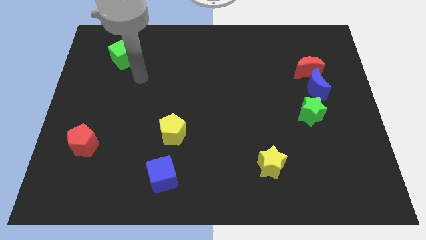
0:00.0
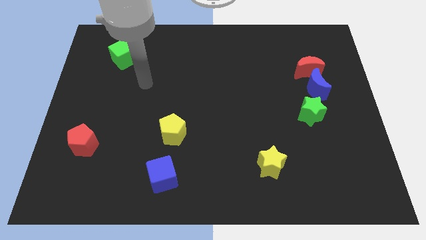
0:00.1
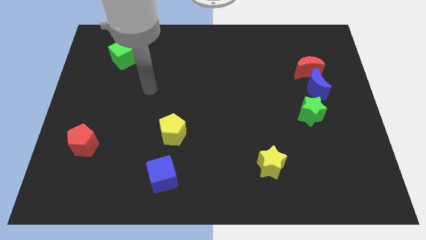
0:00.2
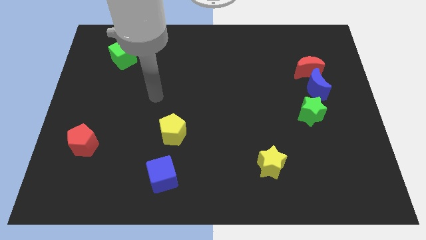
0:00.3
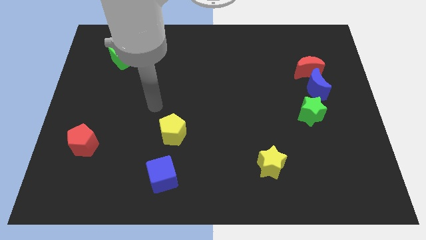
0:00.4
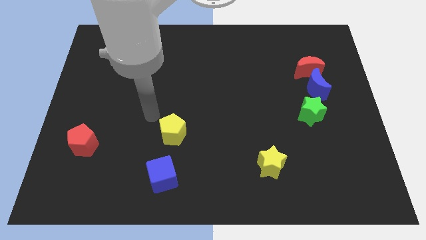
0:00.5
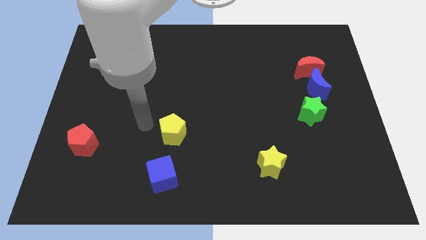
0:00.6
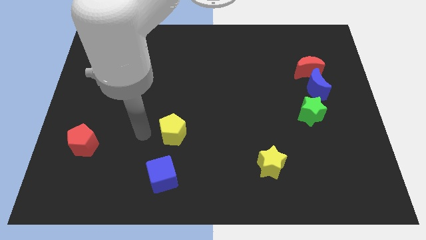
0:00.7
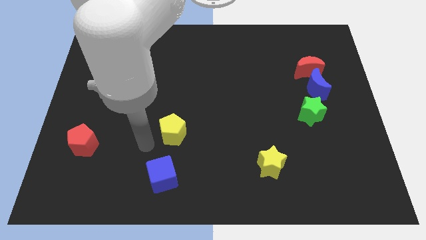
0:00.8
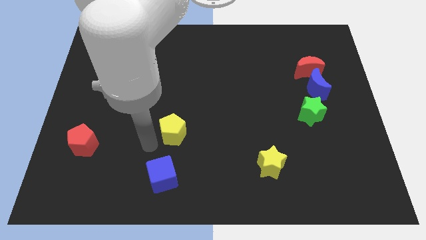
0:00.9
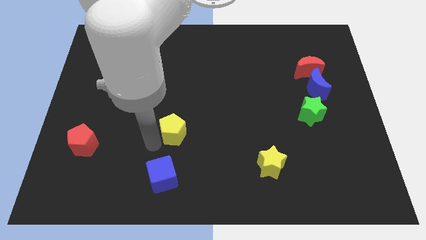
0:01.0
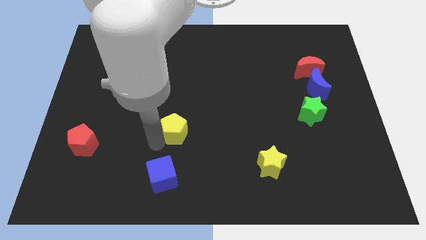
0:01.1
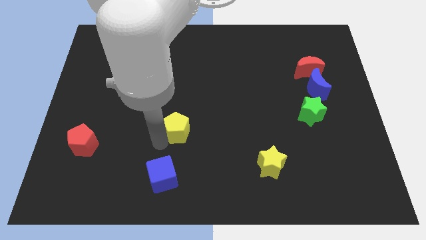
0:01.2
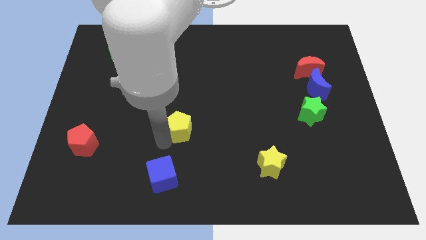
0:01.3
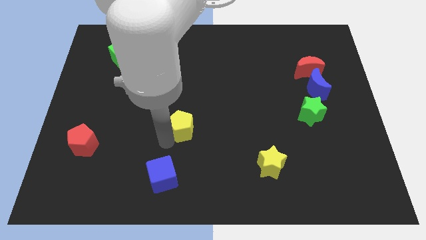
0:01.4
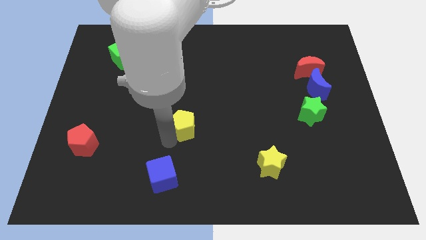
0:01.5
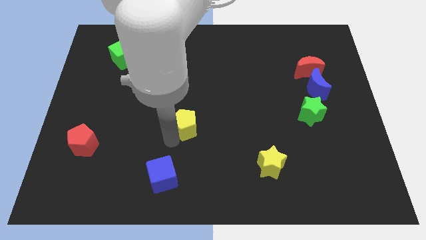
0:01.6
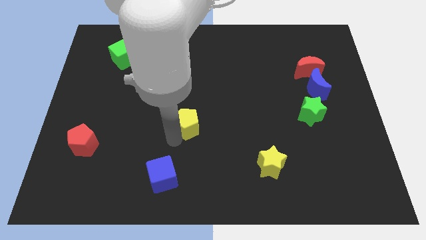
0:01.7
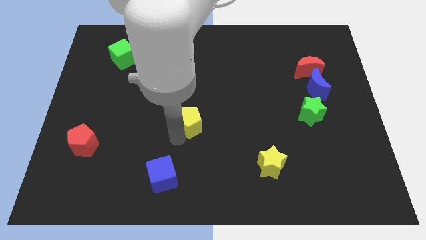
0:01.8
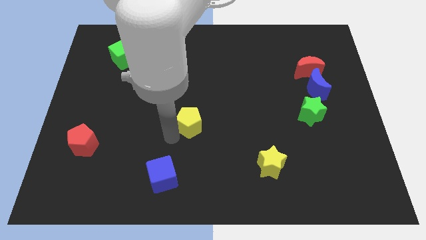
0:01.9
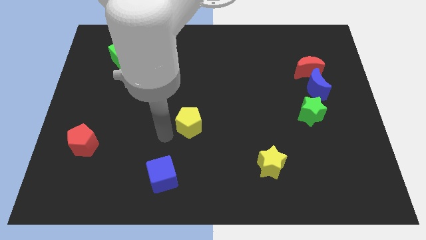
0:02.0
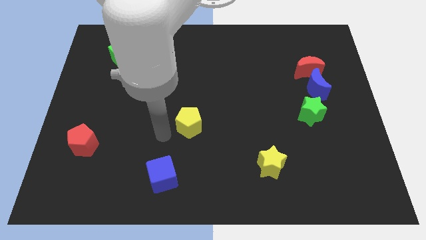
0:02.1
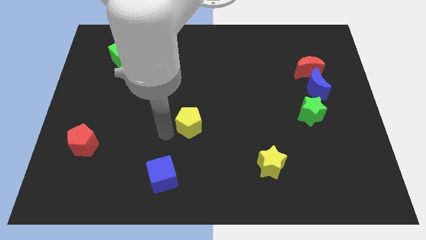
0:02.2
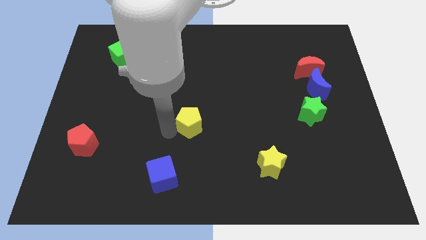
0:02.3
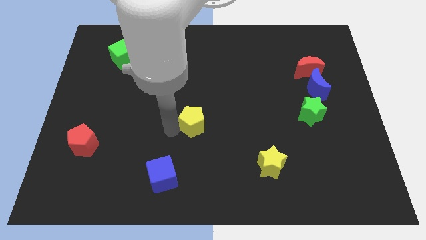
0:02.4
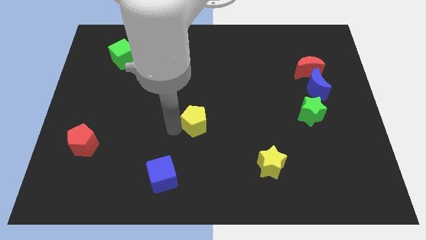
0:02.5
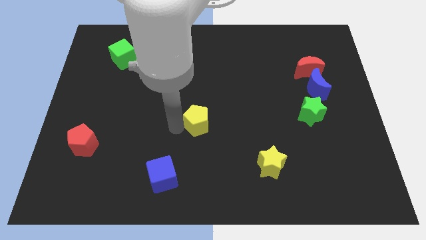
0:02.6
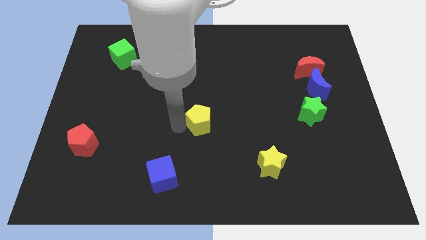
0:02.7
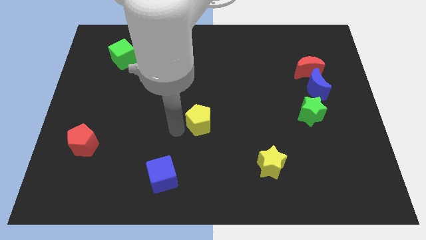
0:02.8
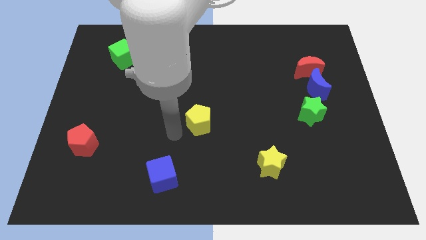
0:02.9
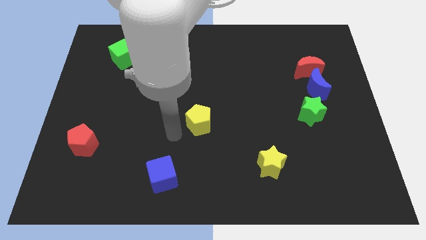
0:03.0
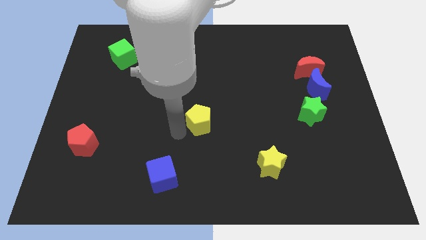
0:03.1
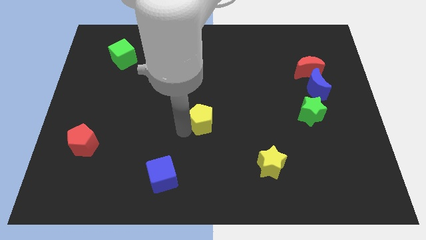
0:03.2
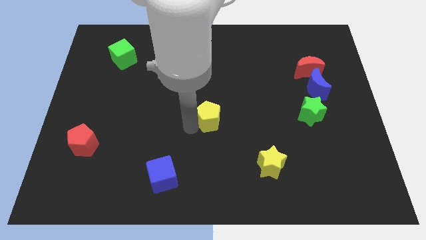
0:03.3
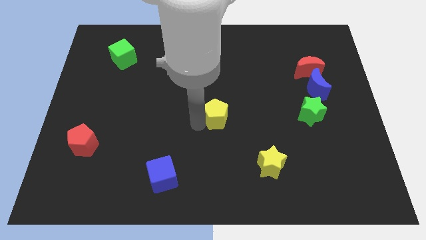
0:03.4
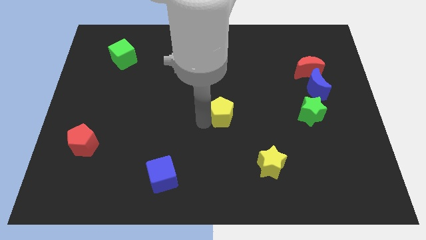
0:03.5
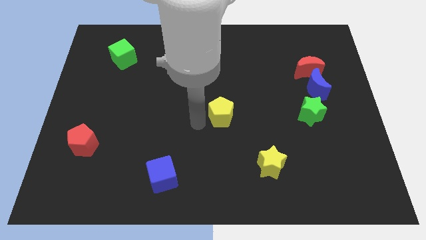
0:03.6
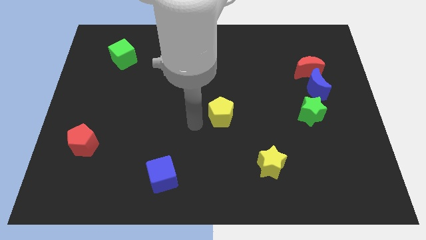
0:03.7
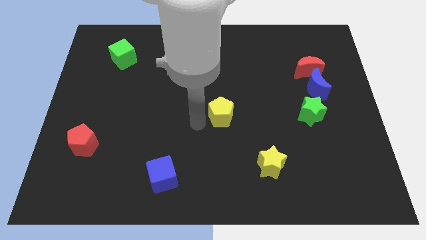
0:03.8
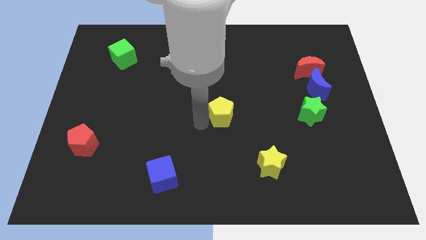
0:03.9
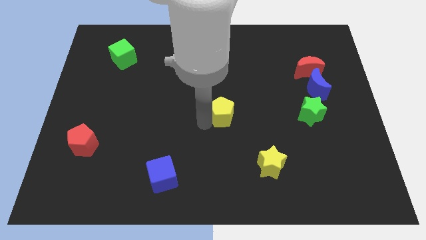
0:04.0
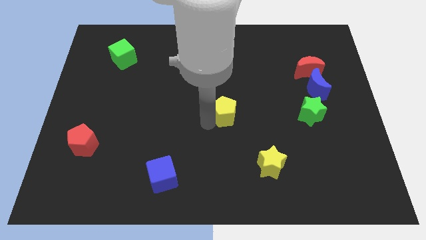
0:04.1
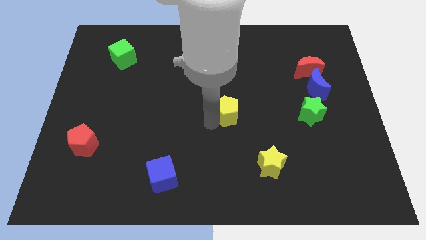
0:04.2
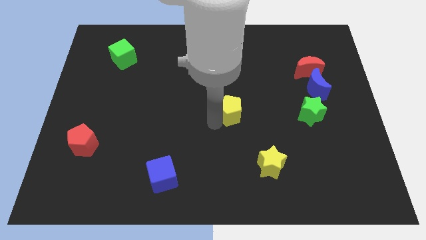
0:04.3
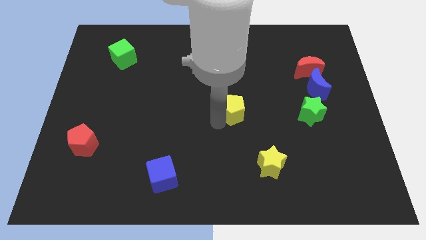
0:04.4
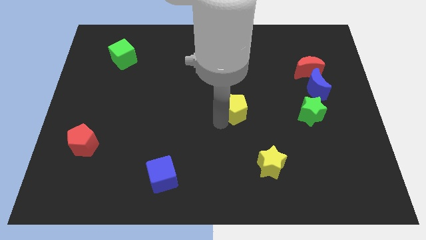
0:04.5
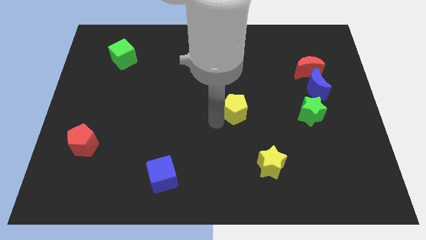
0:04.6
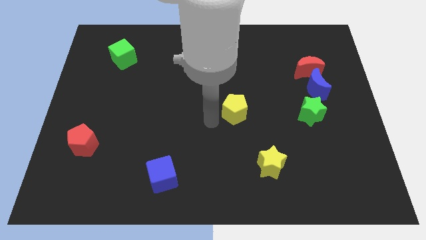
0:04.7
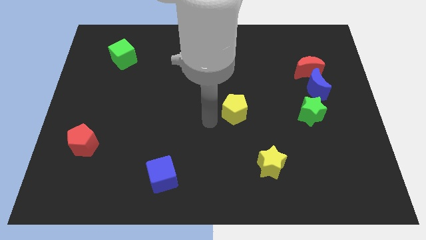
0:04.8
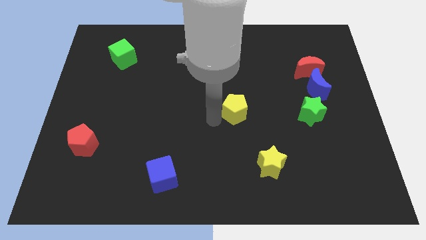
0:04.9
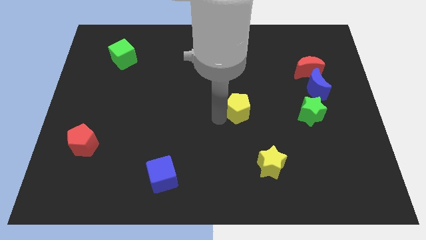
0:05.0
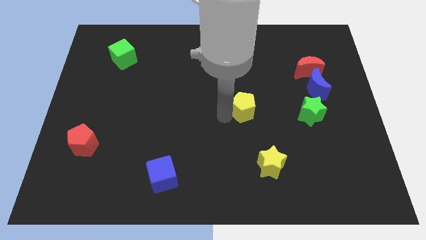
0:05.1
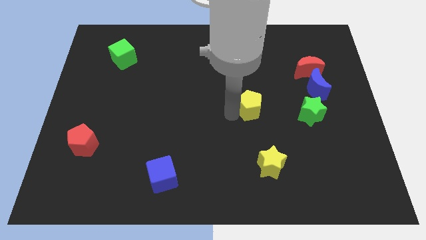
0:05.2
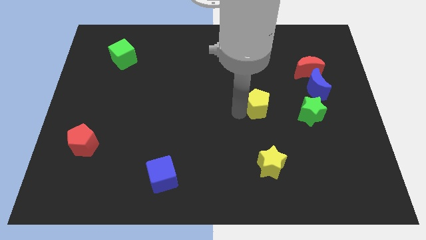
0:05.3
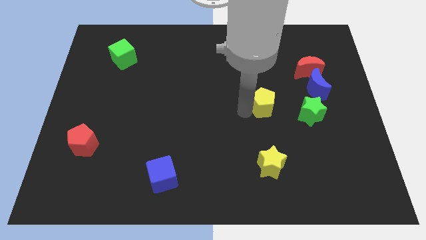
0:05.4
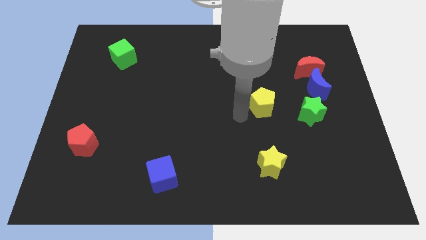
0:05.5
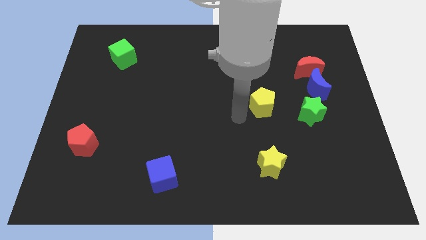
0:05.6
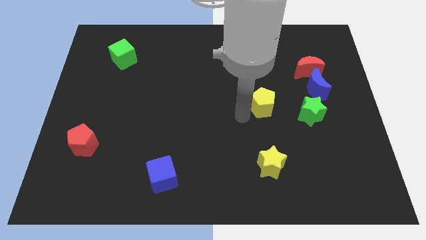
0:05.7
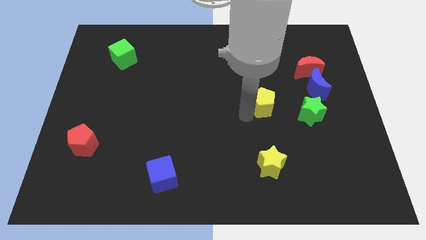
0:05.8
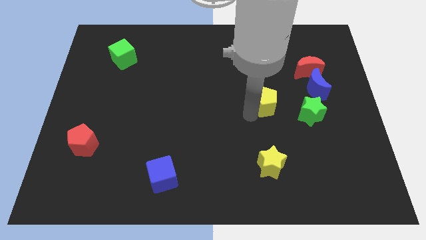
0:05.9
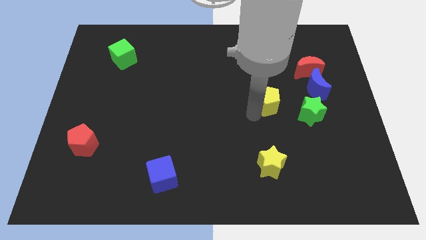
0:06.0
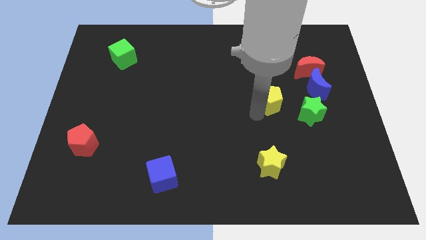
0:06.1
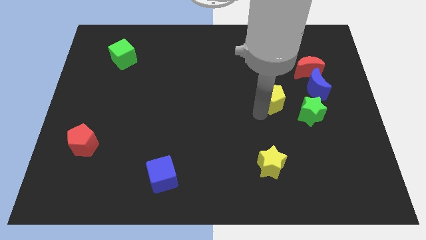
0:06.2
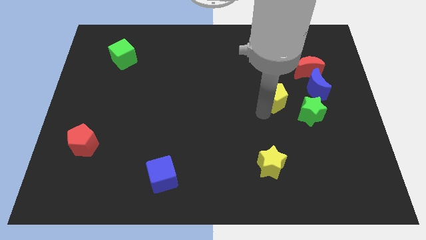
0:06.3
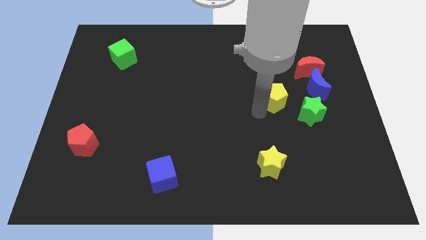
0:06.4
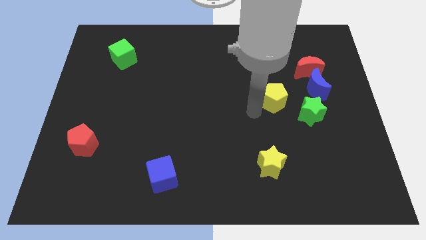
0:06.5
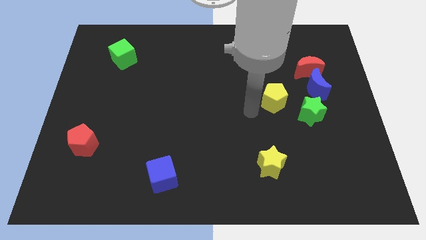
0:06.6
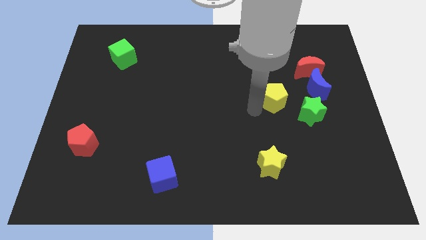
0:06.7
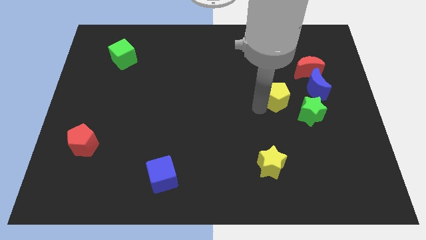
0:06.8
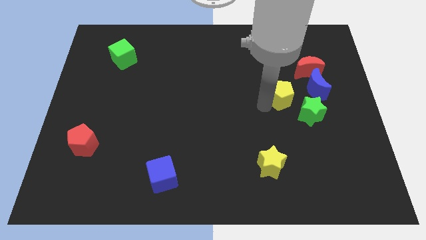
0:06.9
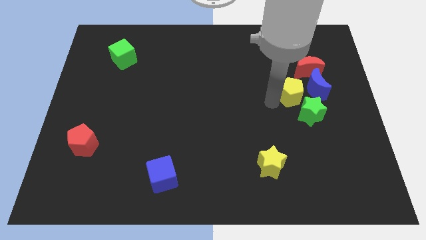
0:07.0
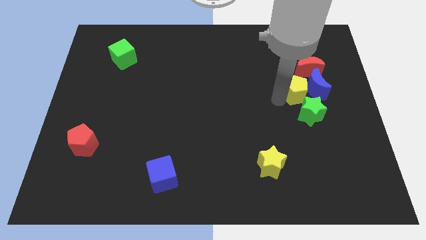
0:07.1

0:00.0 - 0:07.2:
put the yellow pentagon to the blue moon
